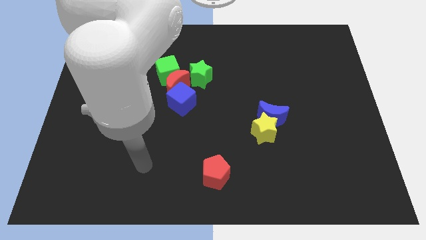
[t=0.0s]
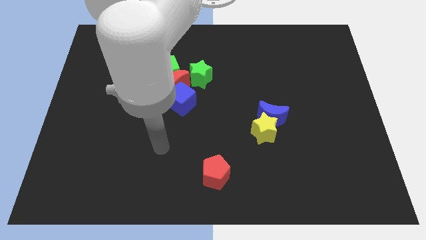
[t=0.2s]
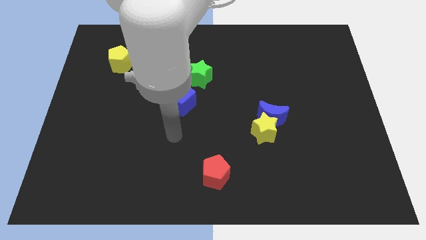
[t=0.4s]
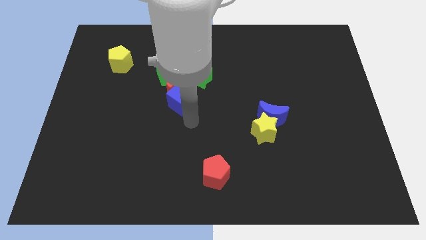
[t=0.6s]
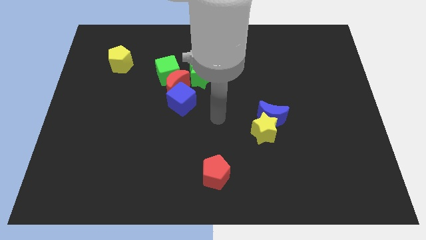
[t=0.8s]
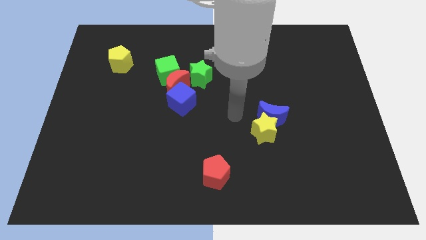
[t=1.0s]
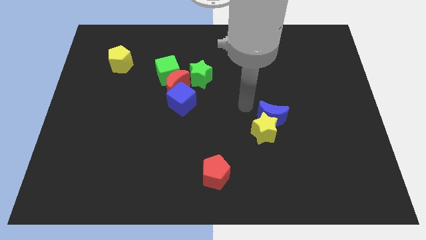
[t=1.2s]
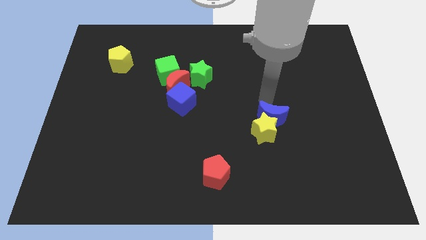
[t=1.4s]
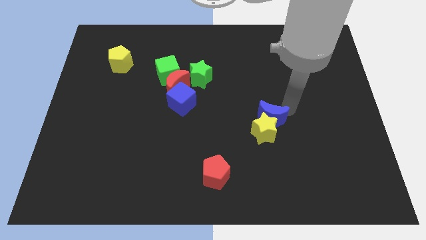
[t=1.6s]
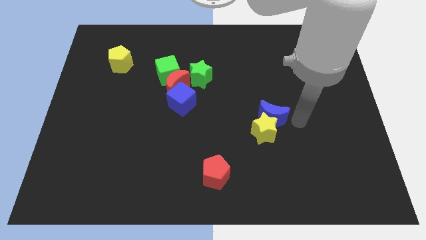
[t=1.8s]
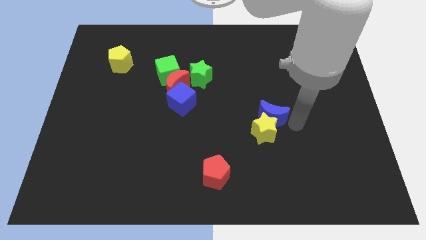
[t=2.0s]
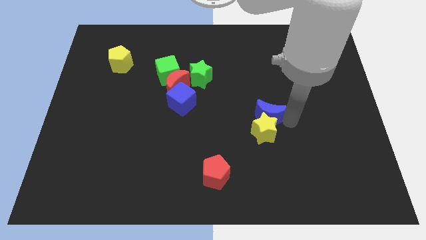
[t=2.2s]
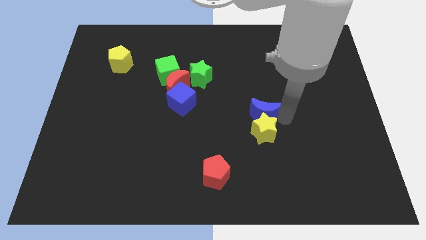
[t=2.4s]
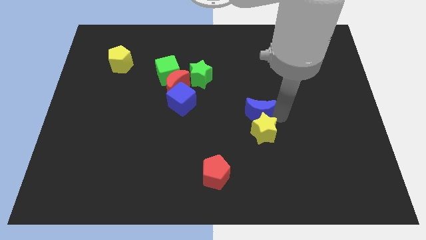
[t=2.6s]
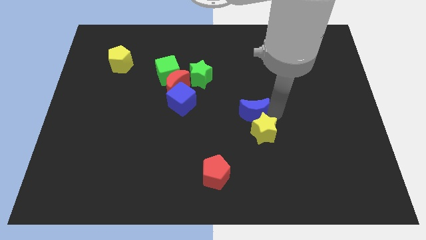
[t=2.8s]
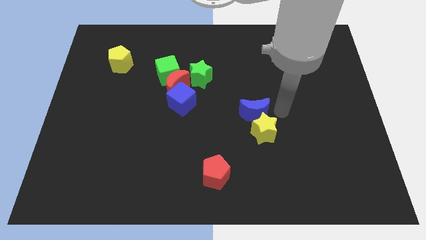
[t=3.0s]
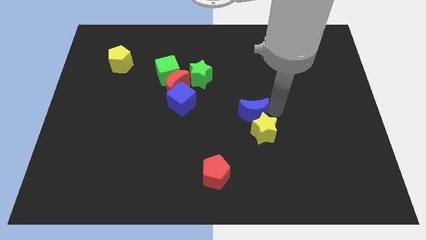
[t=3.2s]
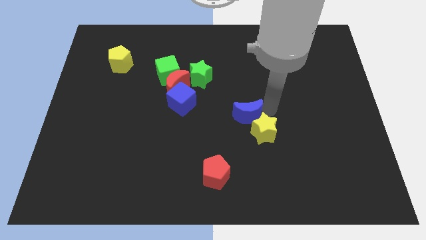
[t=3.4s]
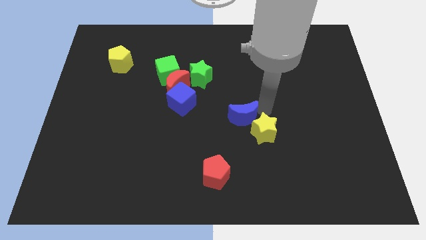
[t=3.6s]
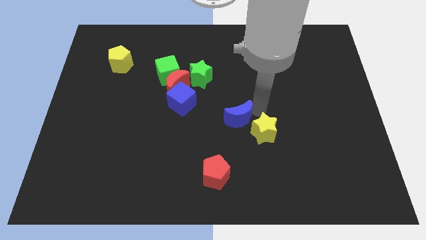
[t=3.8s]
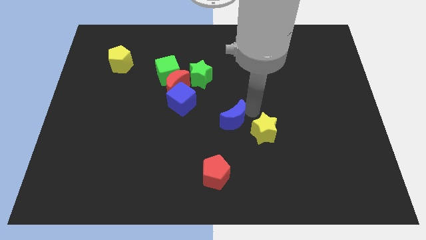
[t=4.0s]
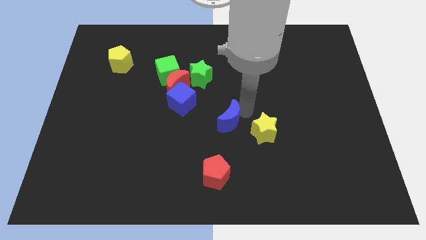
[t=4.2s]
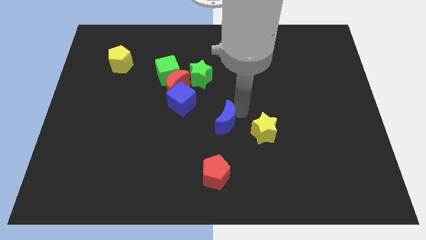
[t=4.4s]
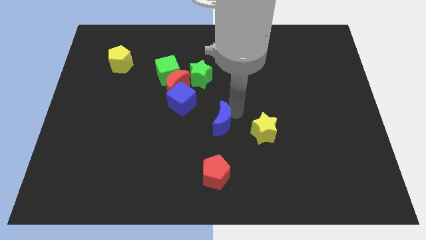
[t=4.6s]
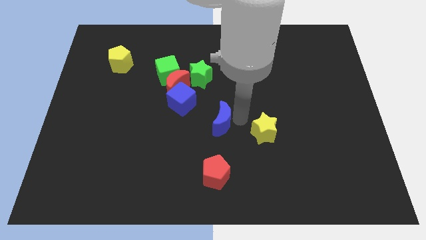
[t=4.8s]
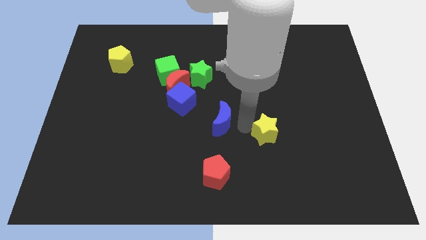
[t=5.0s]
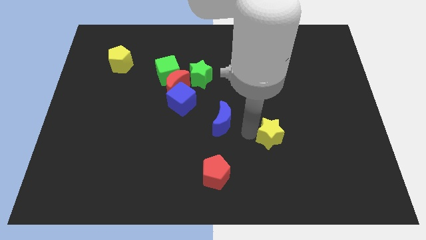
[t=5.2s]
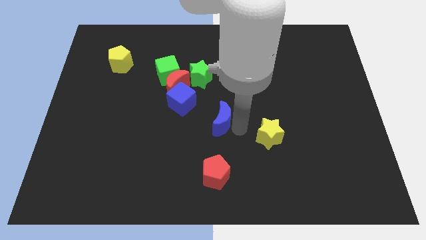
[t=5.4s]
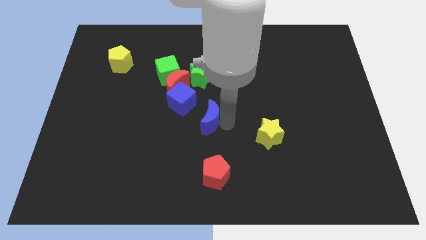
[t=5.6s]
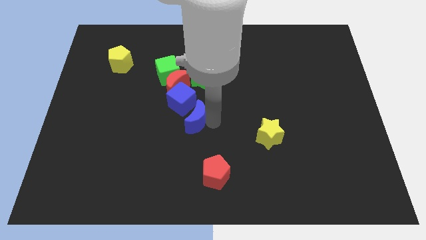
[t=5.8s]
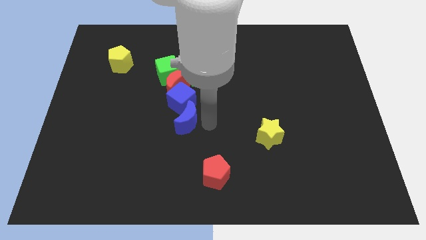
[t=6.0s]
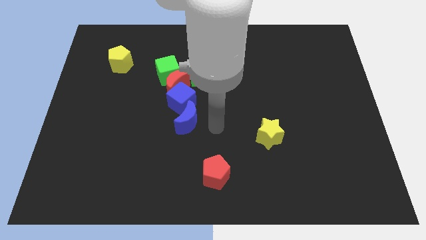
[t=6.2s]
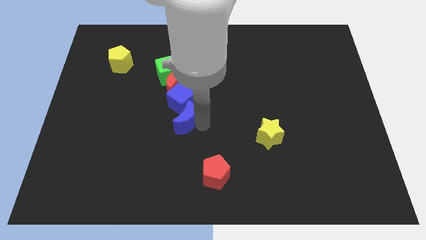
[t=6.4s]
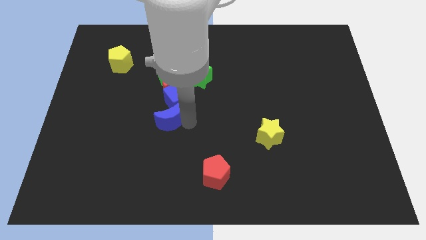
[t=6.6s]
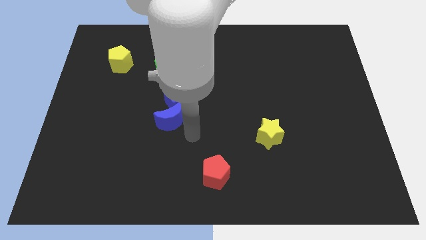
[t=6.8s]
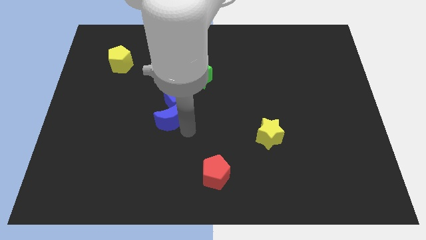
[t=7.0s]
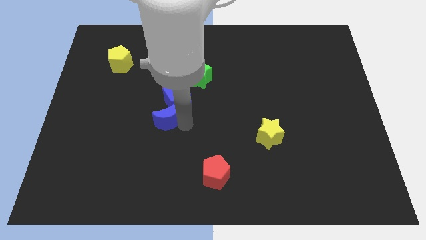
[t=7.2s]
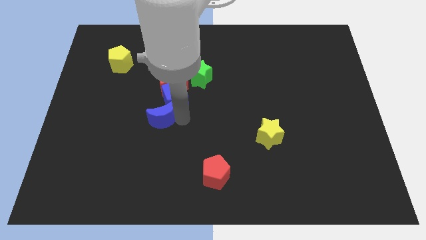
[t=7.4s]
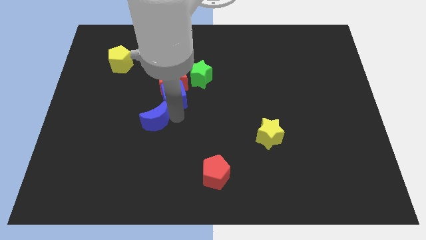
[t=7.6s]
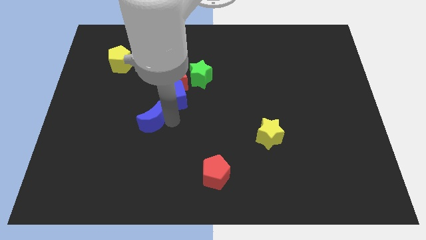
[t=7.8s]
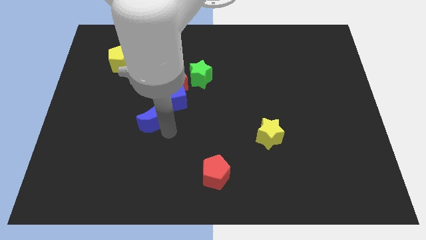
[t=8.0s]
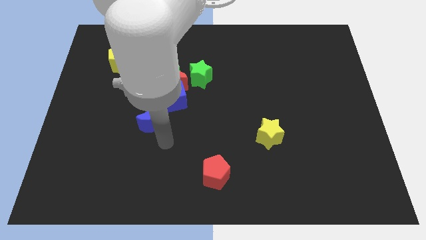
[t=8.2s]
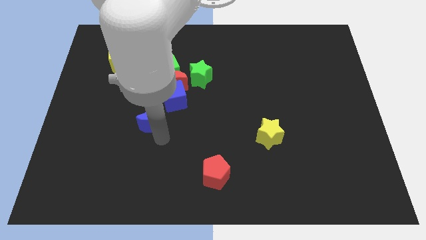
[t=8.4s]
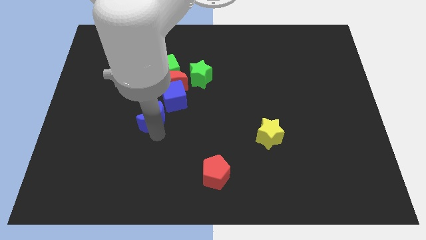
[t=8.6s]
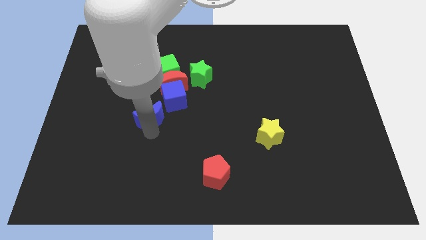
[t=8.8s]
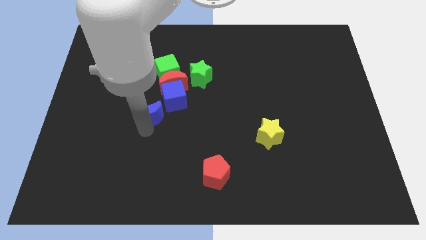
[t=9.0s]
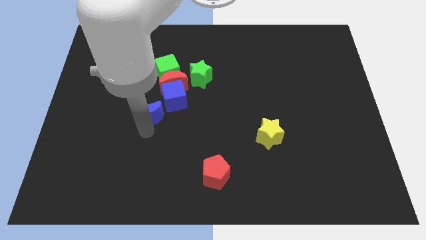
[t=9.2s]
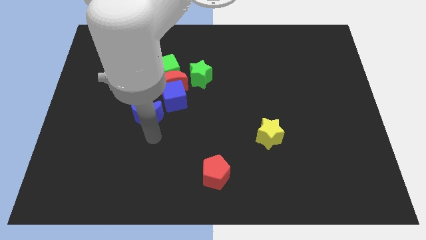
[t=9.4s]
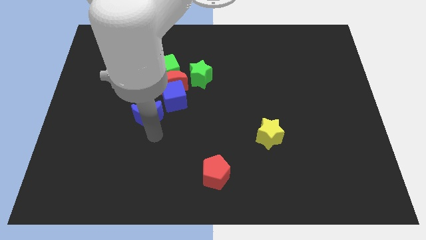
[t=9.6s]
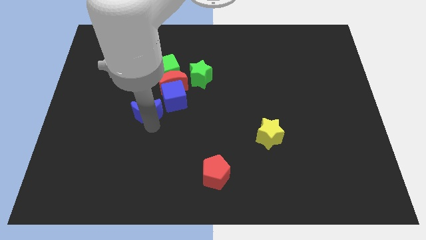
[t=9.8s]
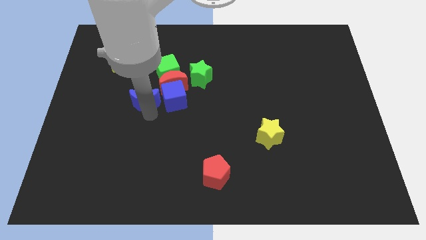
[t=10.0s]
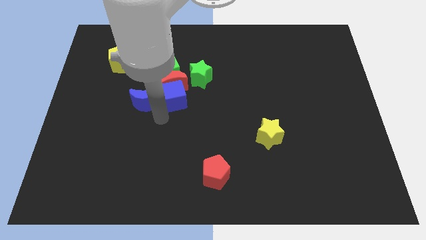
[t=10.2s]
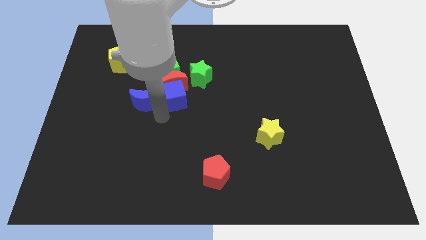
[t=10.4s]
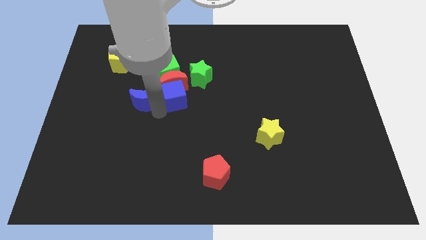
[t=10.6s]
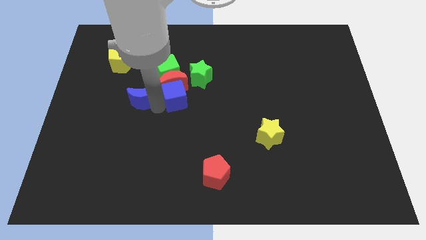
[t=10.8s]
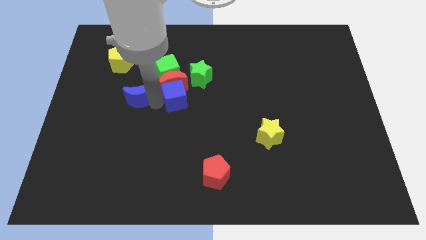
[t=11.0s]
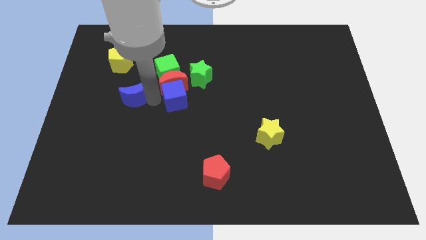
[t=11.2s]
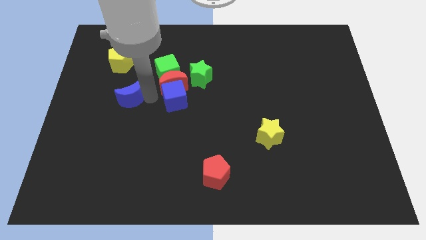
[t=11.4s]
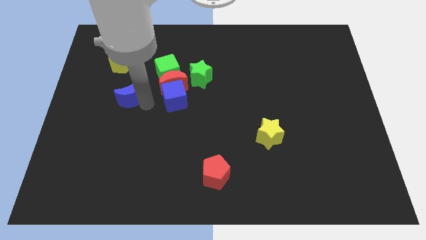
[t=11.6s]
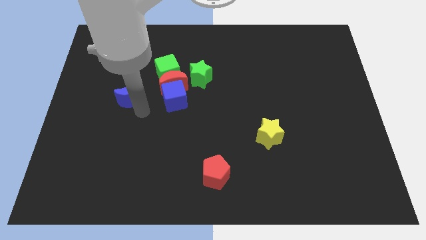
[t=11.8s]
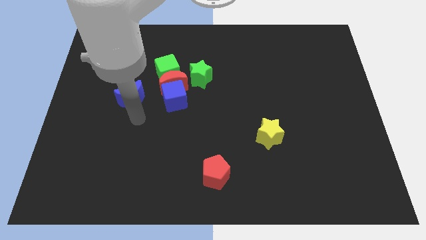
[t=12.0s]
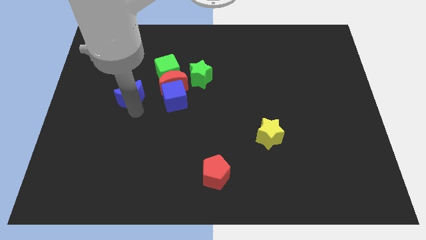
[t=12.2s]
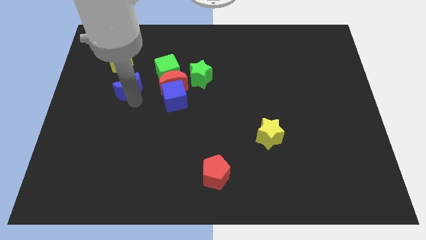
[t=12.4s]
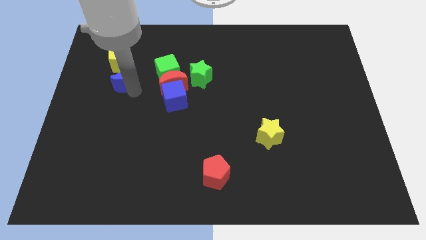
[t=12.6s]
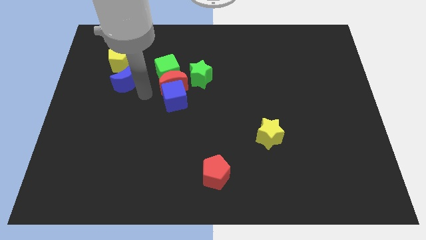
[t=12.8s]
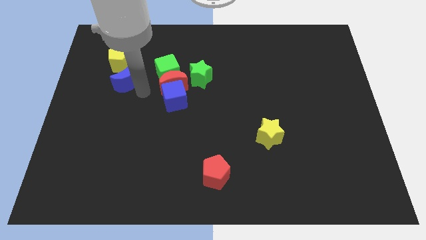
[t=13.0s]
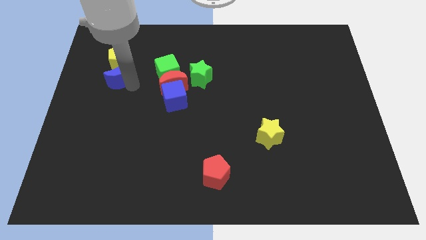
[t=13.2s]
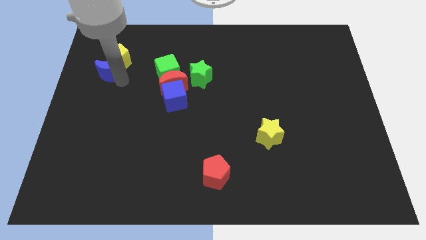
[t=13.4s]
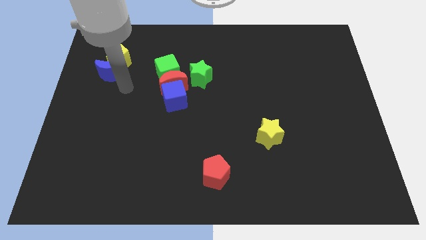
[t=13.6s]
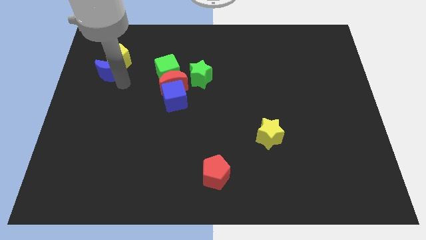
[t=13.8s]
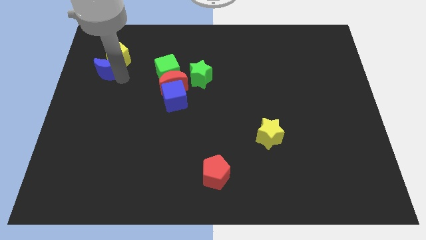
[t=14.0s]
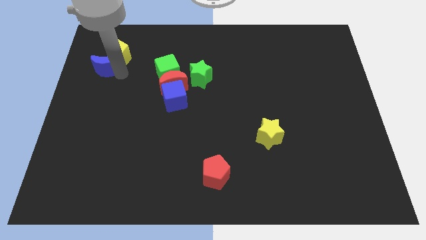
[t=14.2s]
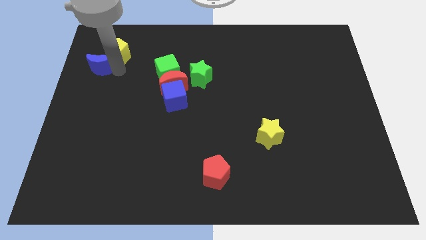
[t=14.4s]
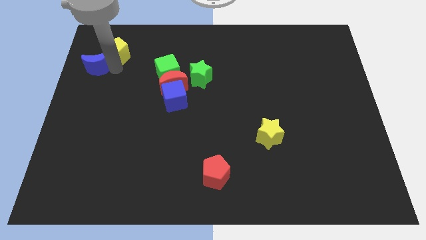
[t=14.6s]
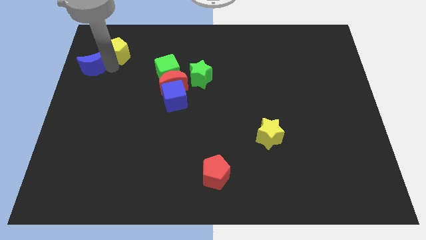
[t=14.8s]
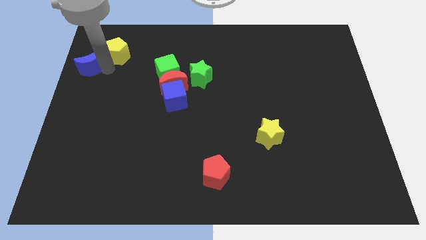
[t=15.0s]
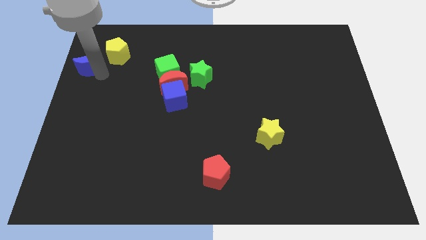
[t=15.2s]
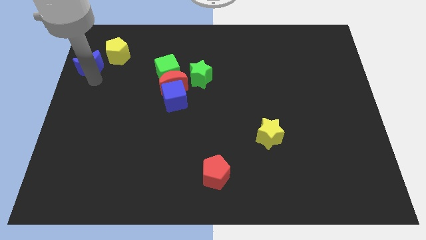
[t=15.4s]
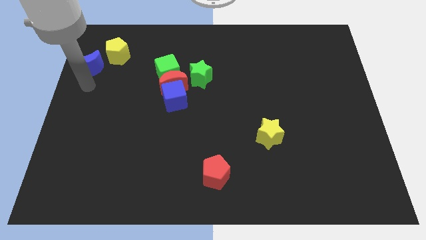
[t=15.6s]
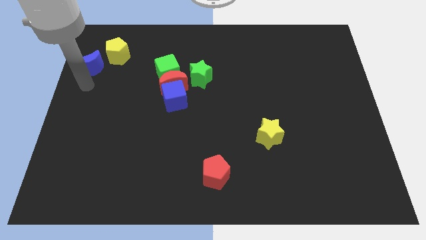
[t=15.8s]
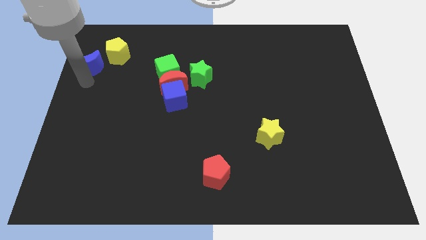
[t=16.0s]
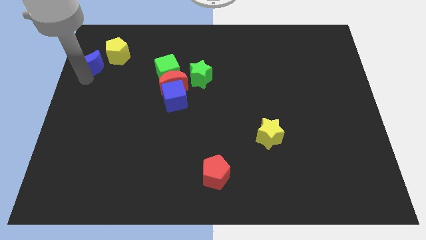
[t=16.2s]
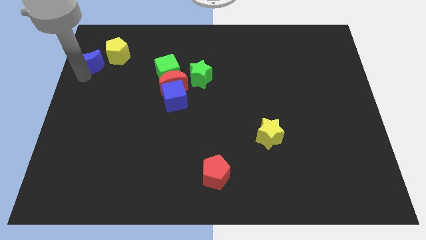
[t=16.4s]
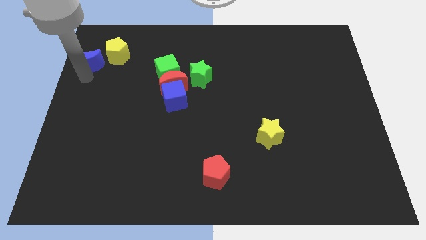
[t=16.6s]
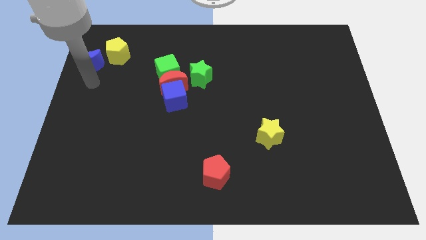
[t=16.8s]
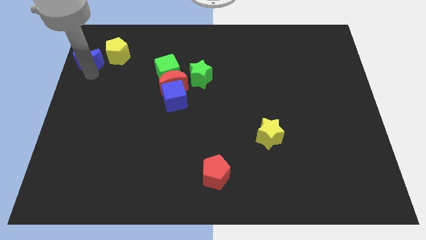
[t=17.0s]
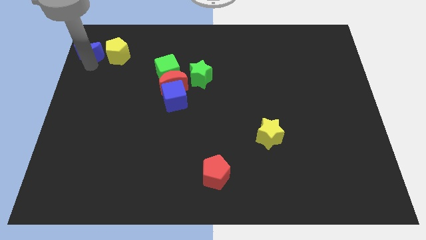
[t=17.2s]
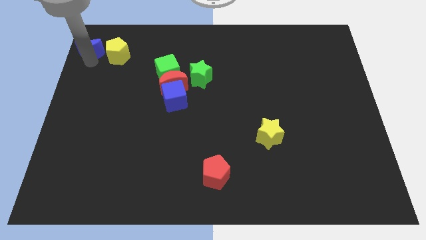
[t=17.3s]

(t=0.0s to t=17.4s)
push the blue moon to the top left of the board
